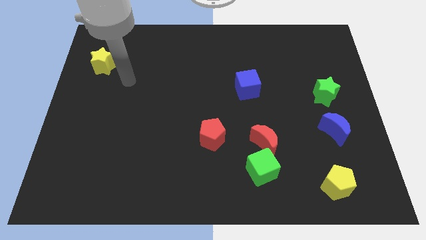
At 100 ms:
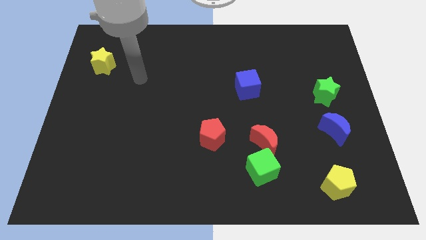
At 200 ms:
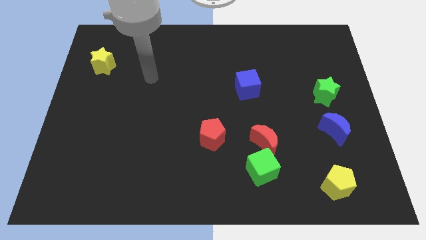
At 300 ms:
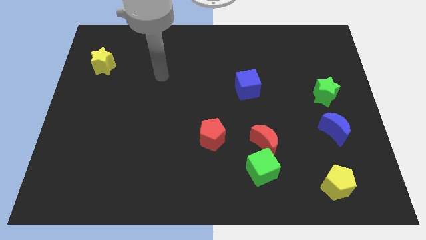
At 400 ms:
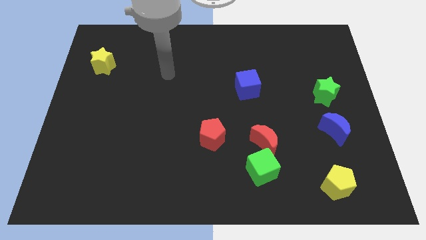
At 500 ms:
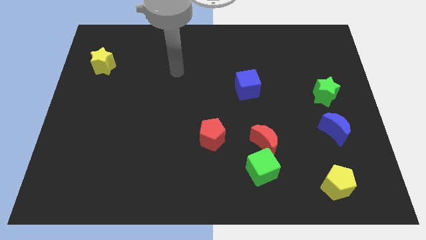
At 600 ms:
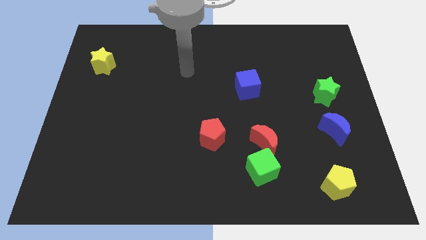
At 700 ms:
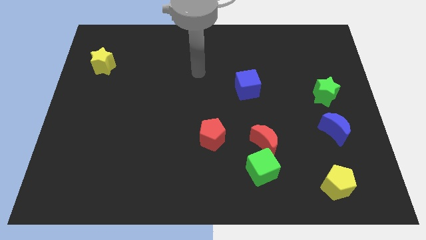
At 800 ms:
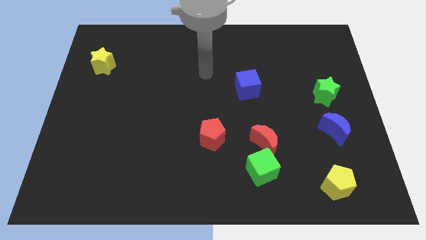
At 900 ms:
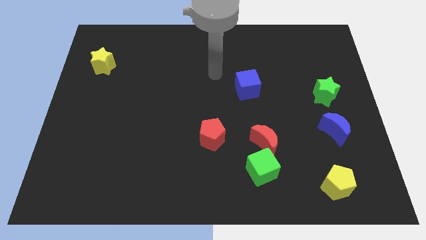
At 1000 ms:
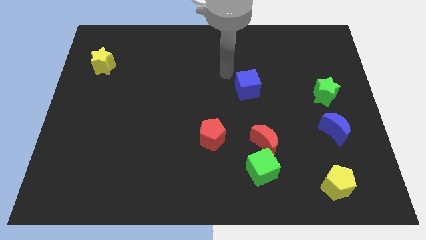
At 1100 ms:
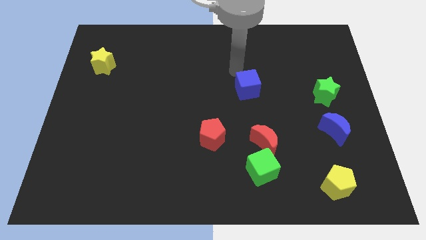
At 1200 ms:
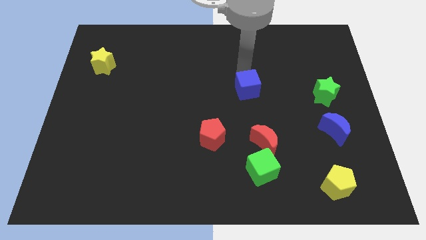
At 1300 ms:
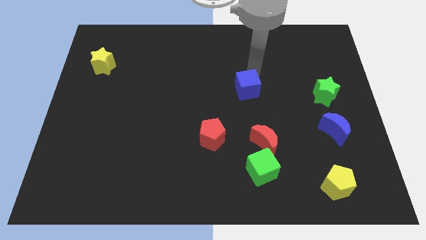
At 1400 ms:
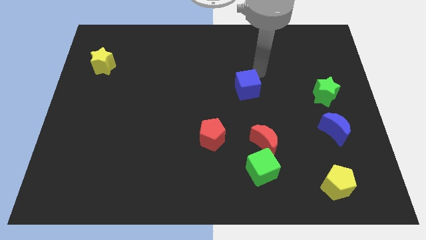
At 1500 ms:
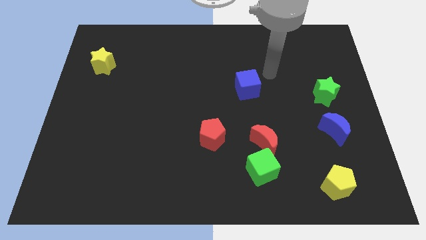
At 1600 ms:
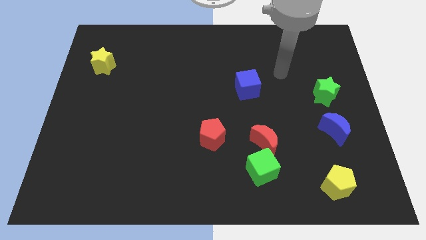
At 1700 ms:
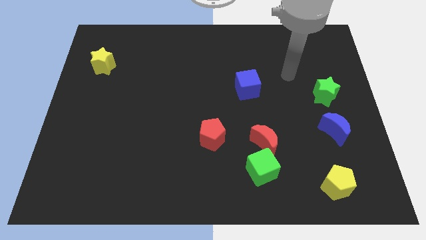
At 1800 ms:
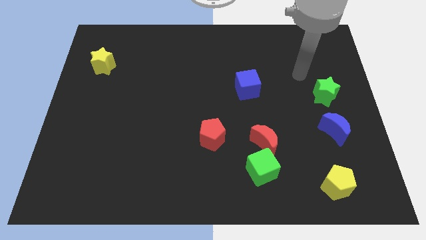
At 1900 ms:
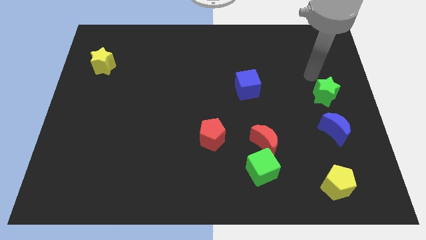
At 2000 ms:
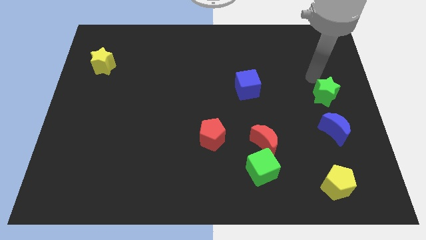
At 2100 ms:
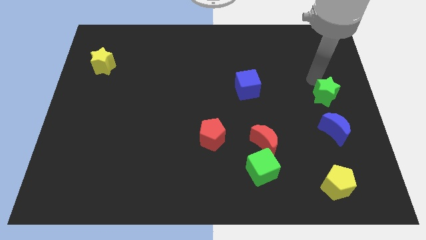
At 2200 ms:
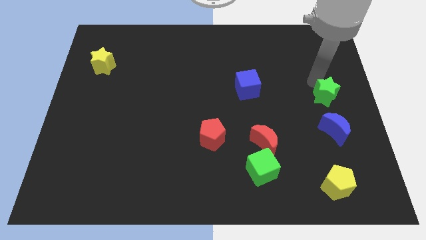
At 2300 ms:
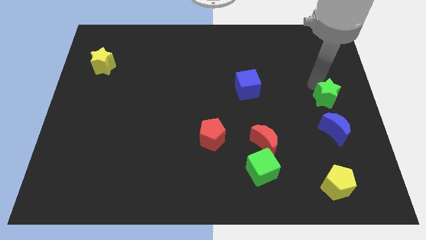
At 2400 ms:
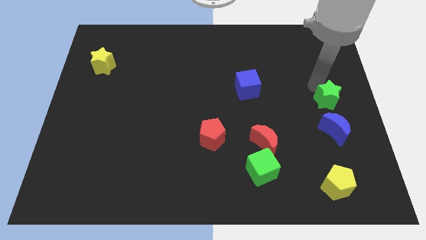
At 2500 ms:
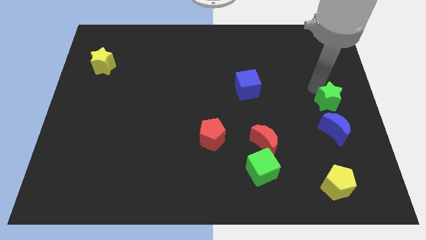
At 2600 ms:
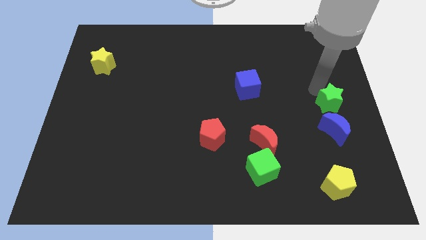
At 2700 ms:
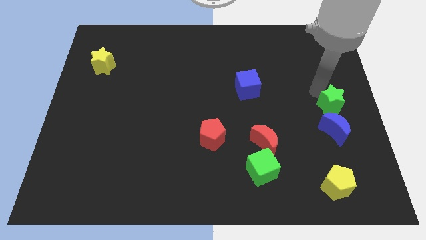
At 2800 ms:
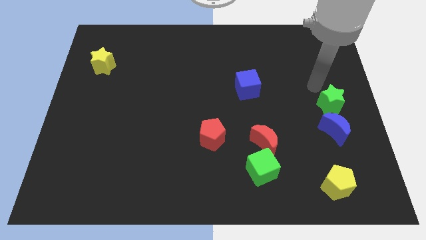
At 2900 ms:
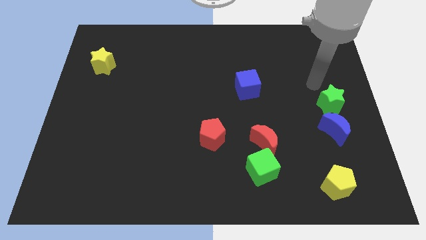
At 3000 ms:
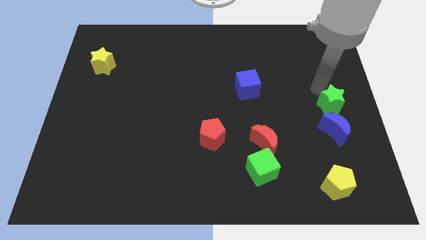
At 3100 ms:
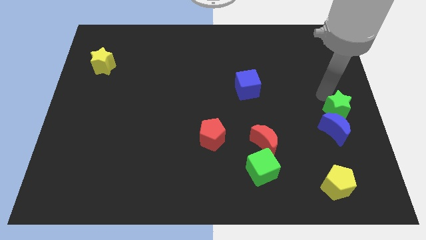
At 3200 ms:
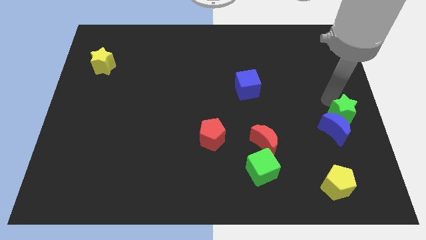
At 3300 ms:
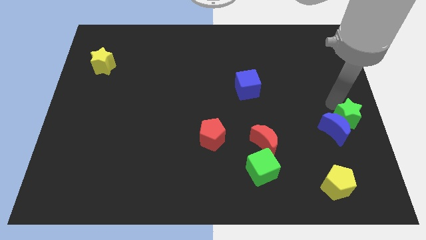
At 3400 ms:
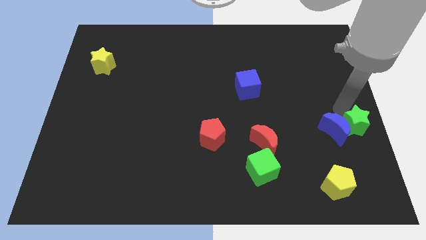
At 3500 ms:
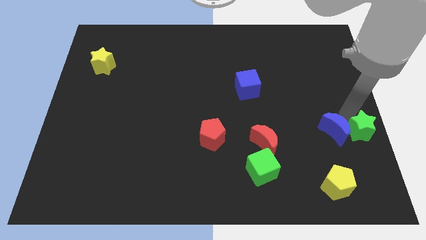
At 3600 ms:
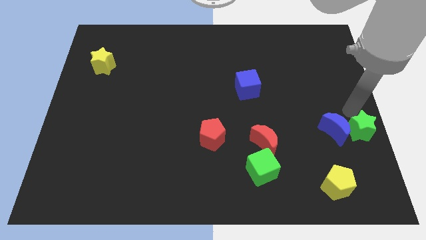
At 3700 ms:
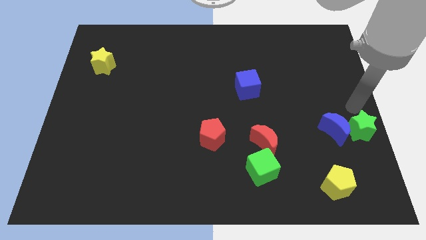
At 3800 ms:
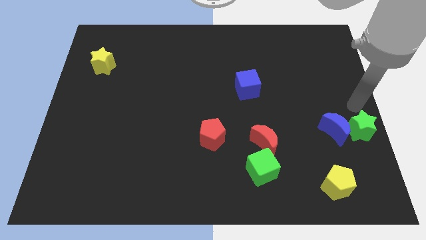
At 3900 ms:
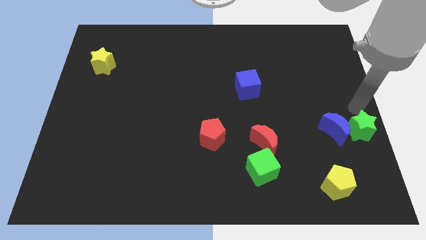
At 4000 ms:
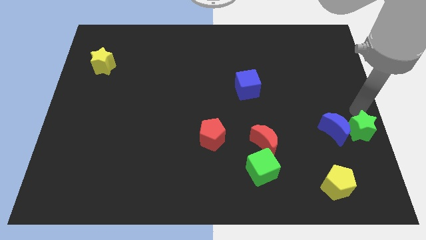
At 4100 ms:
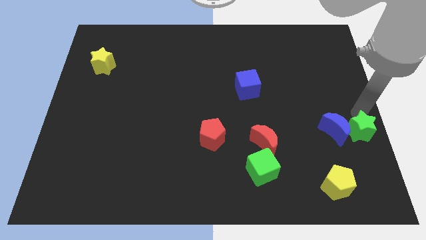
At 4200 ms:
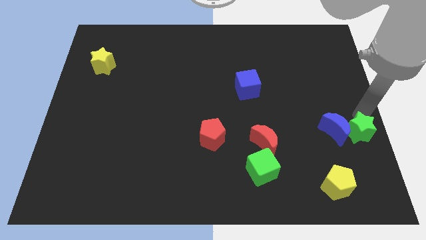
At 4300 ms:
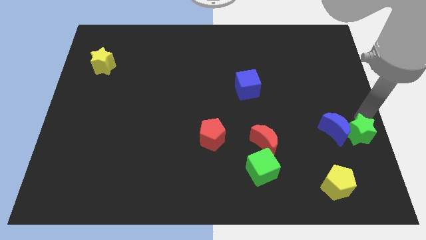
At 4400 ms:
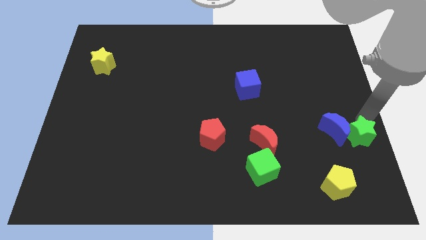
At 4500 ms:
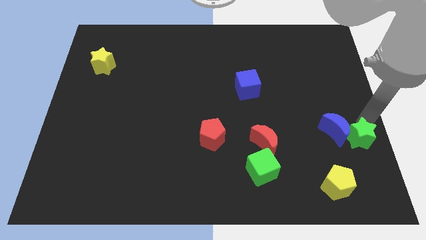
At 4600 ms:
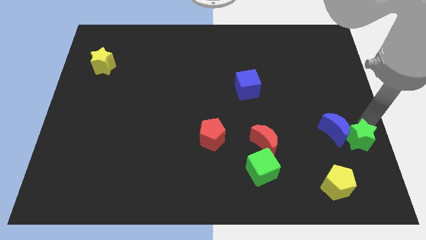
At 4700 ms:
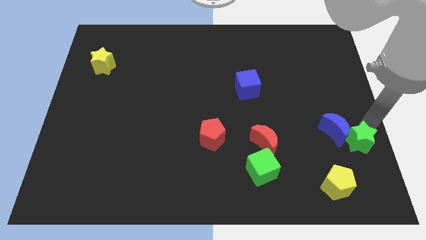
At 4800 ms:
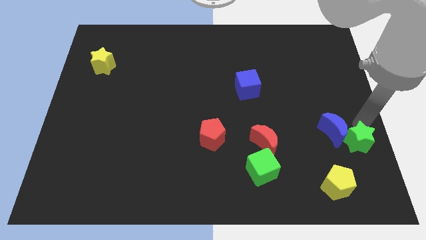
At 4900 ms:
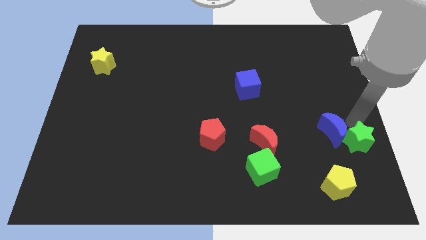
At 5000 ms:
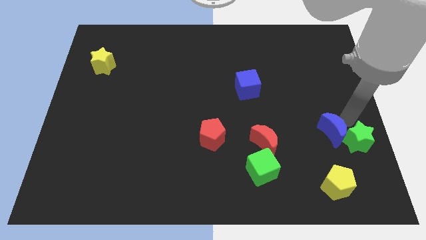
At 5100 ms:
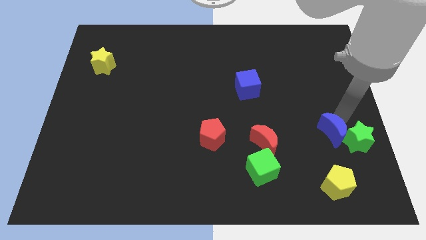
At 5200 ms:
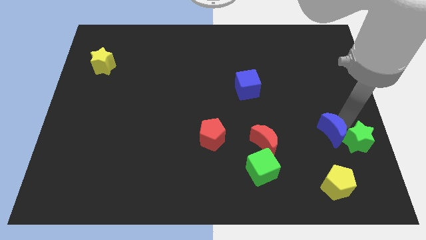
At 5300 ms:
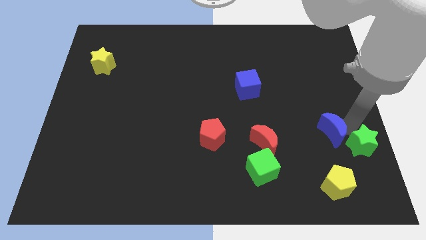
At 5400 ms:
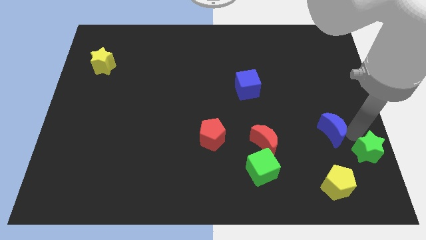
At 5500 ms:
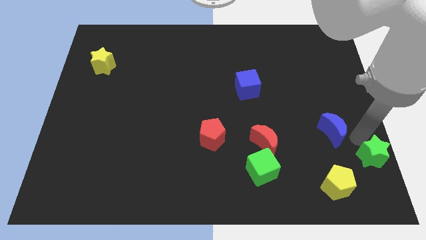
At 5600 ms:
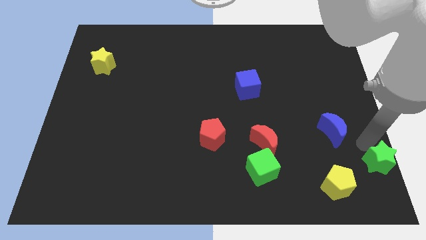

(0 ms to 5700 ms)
move the green star to the lower right corner
